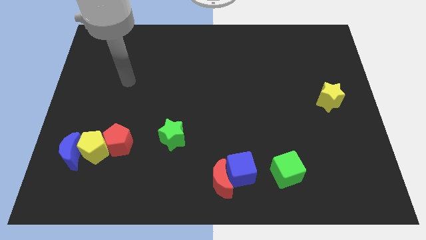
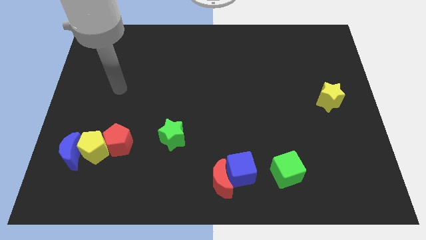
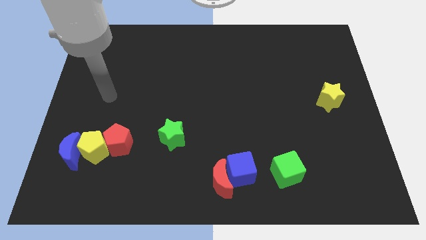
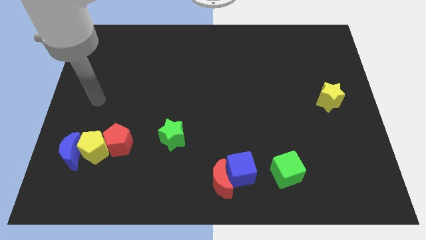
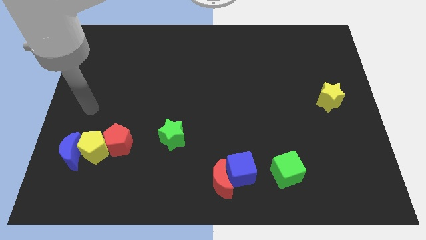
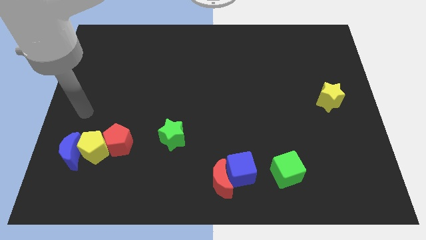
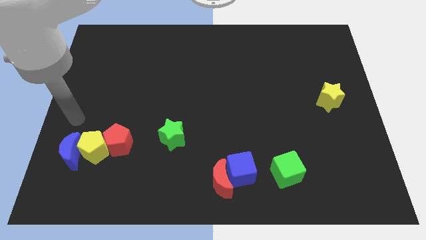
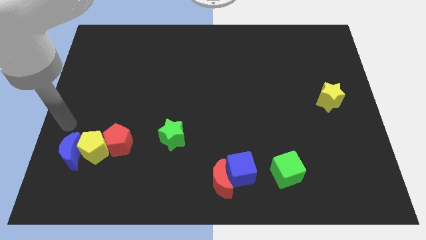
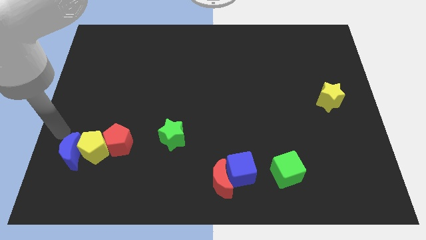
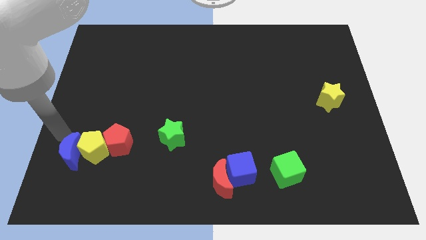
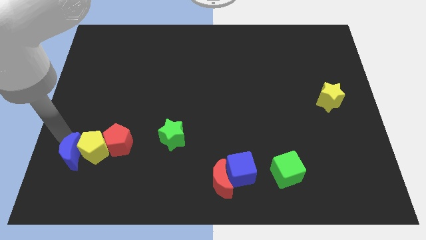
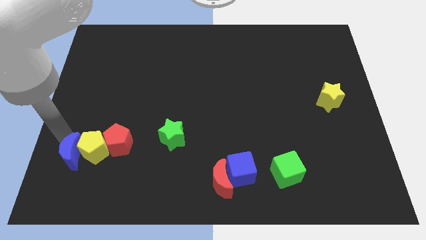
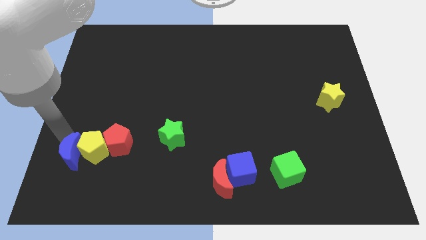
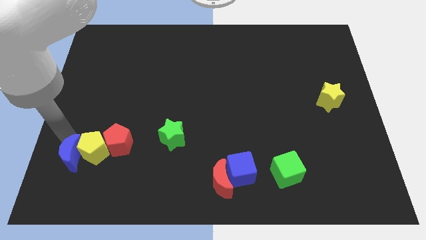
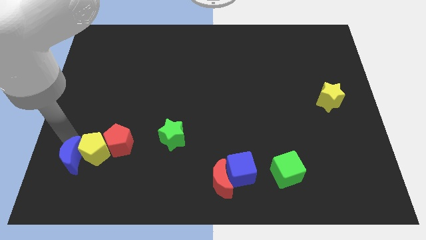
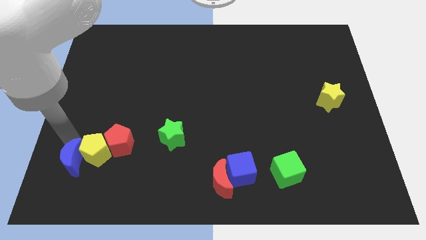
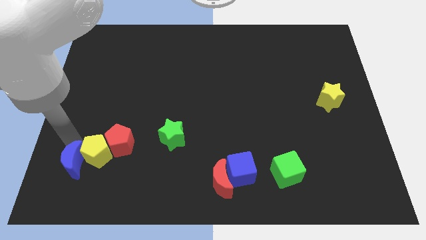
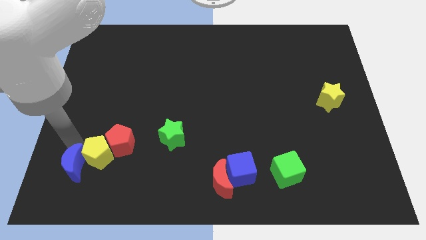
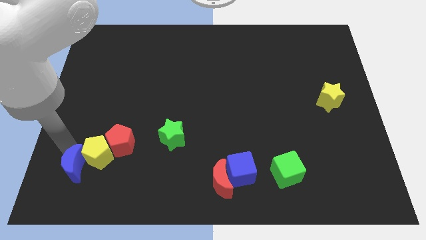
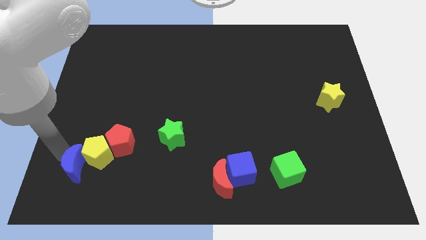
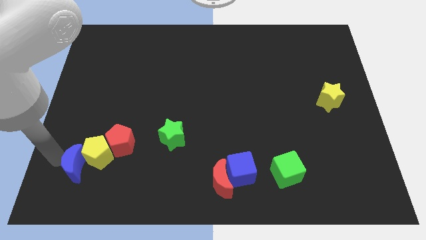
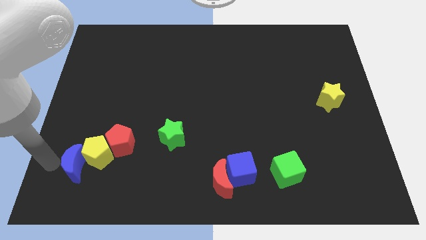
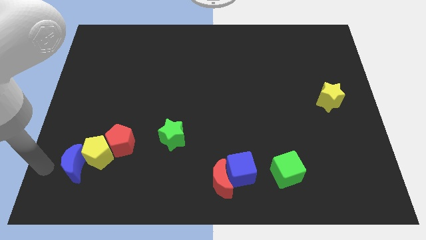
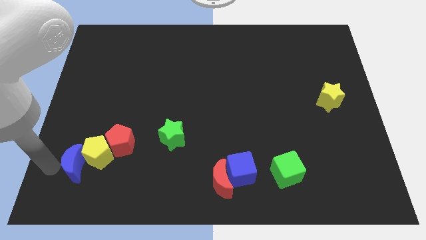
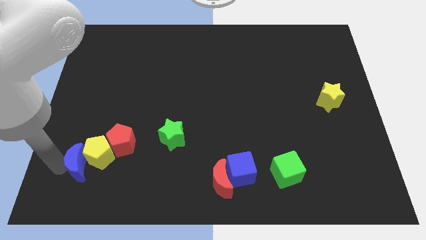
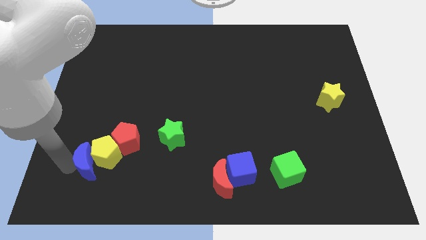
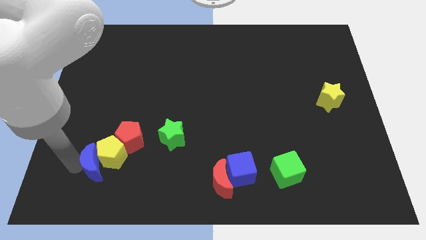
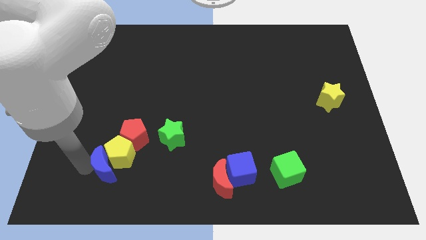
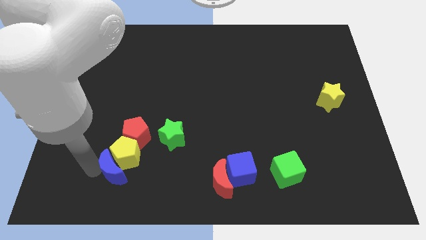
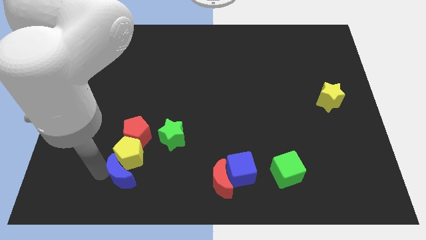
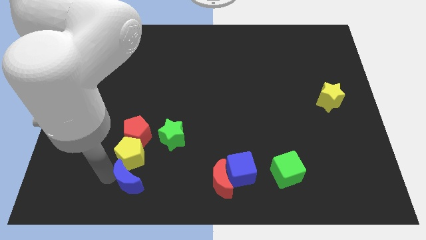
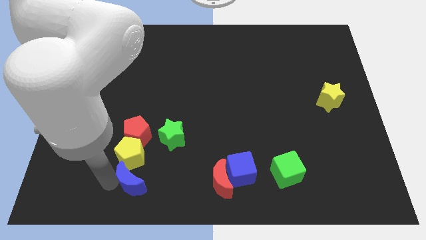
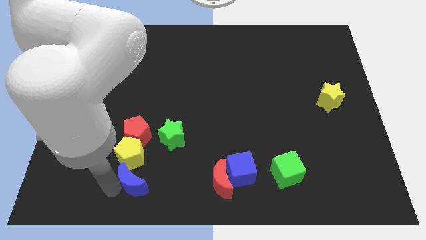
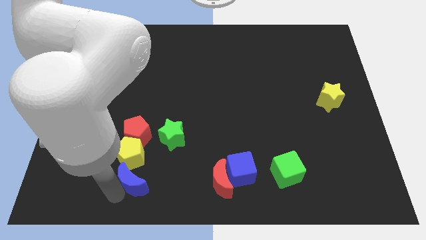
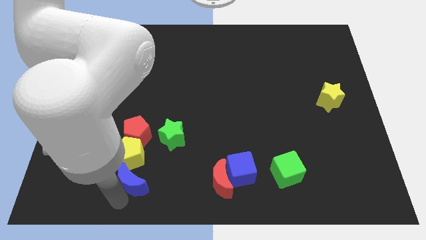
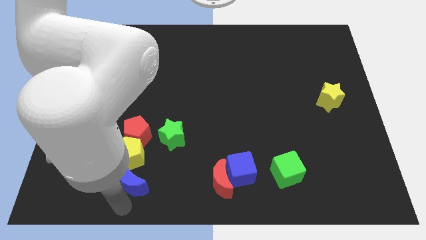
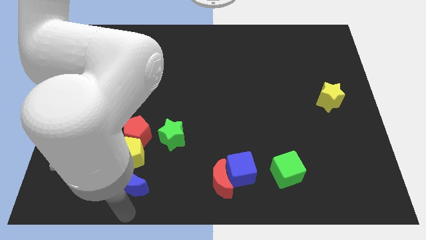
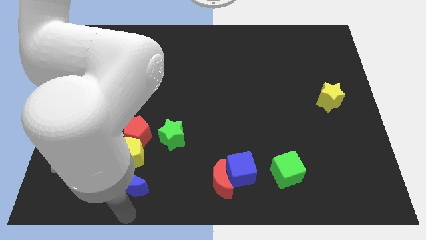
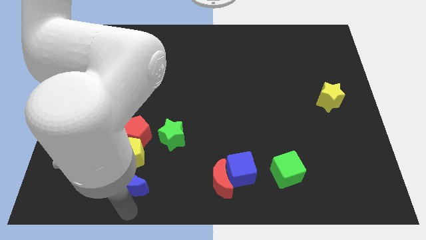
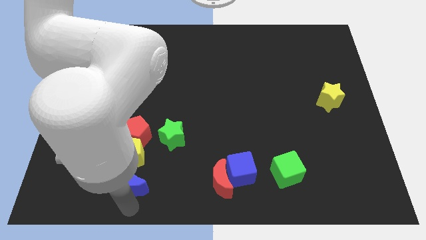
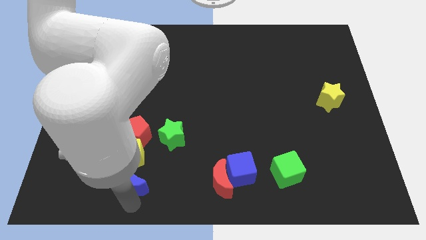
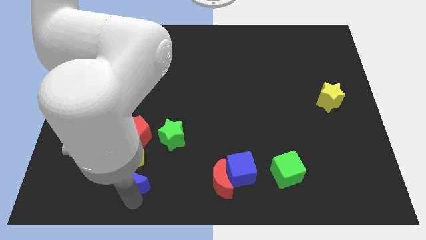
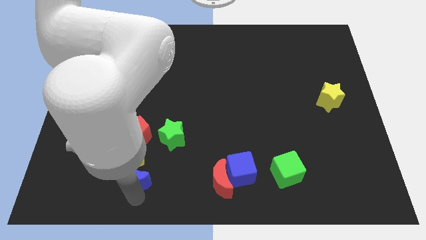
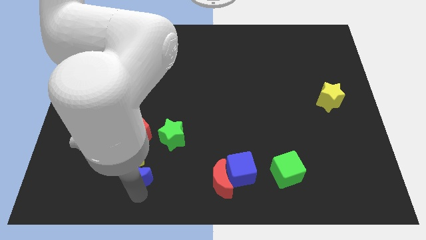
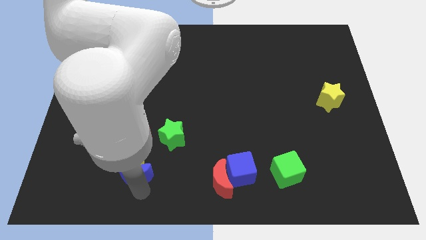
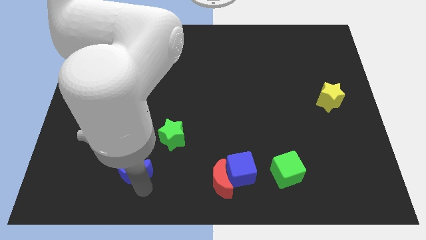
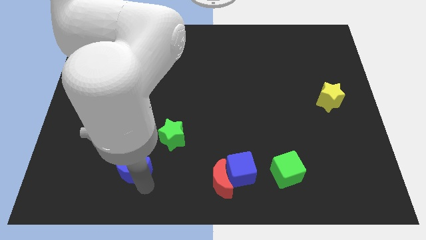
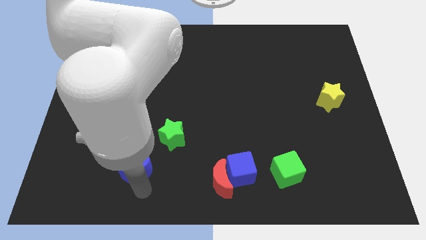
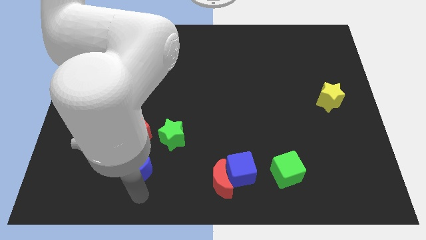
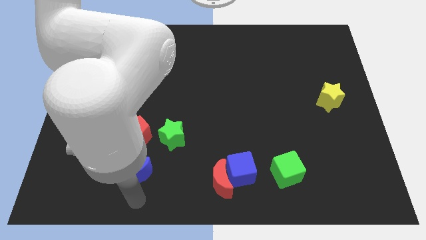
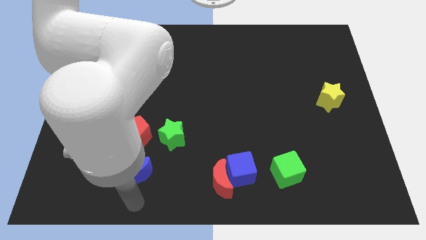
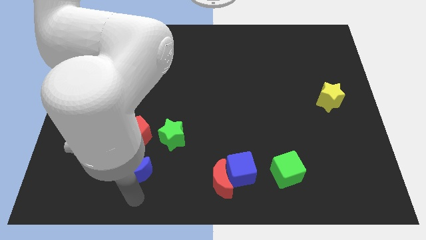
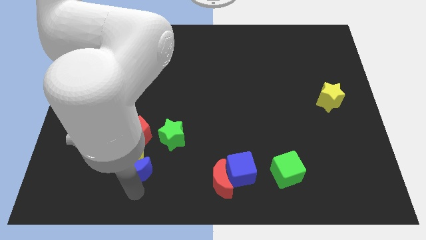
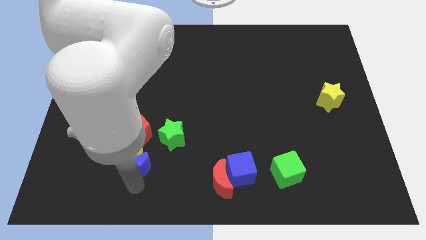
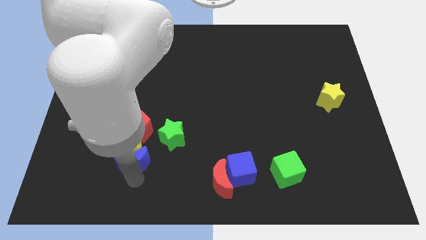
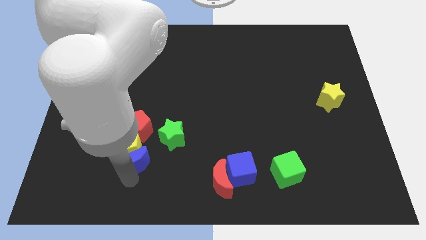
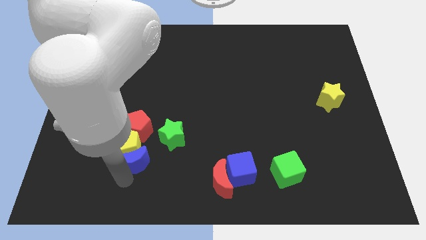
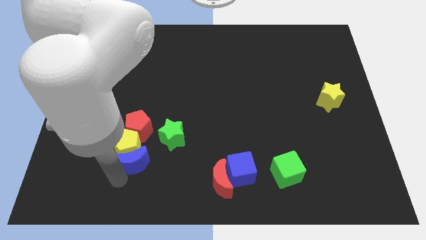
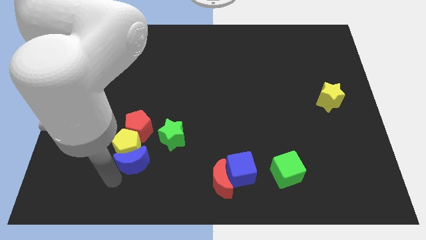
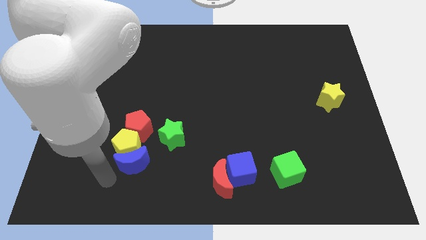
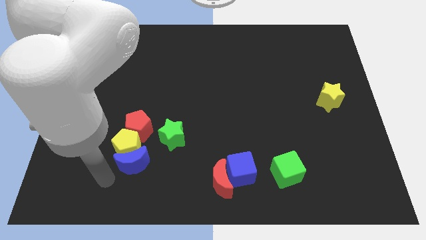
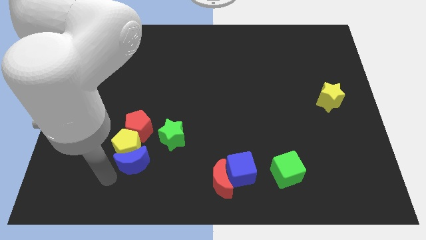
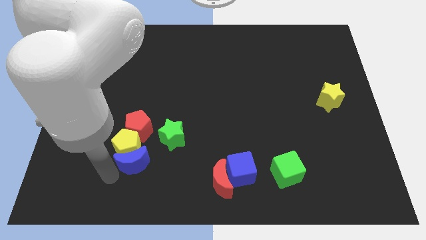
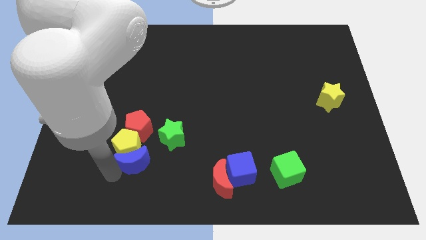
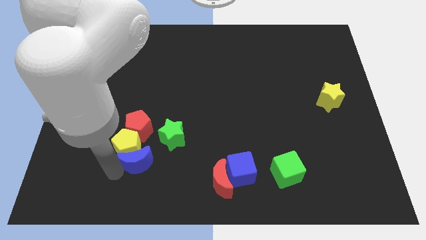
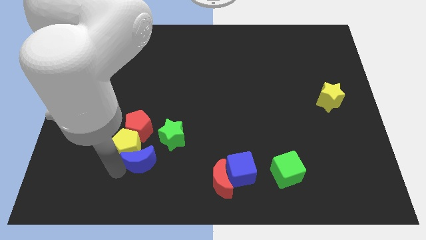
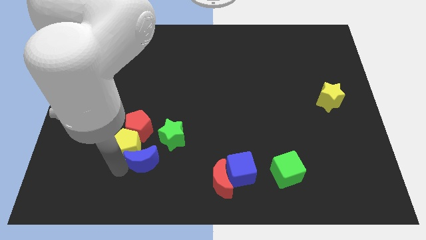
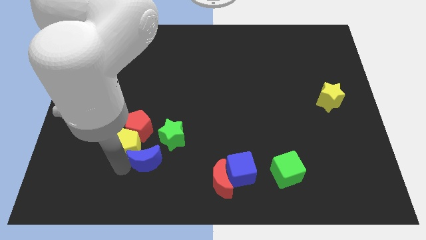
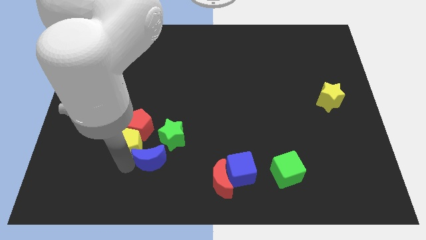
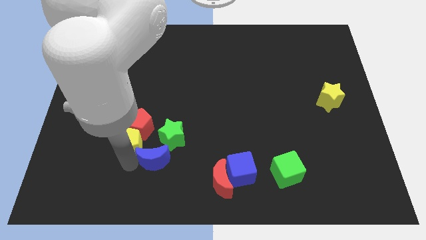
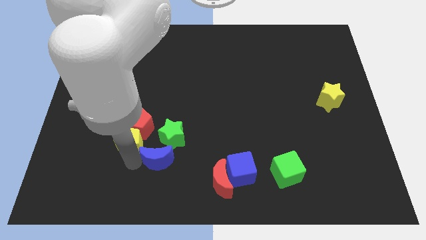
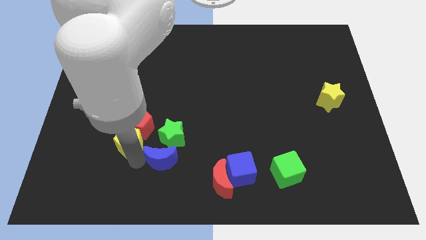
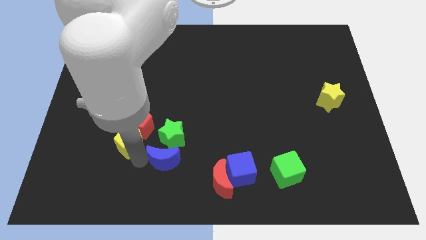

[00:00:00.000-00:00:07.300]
push the blue moon to the right

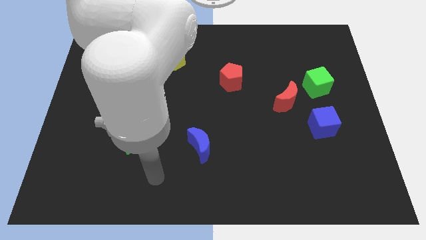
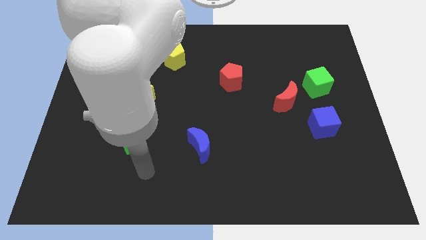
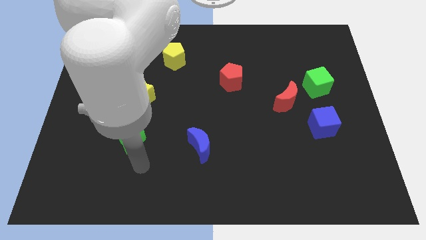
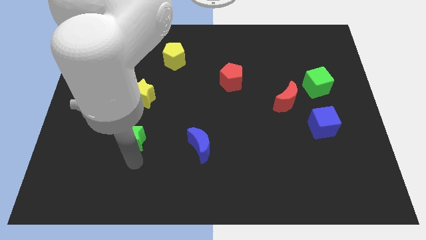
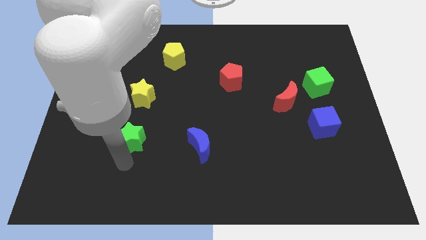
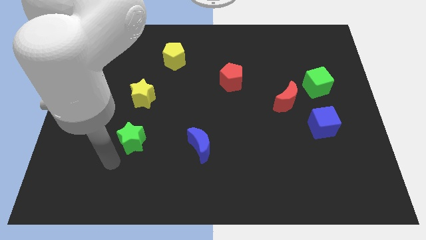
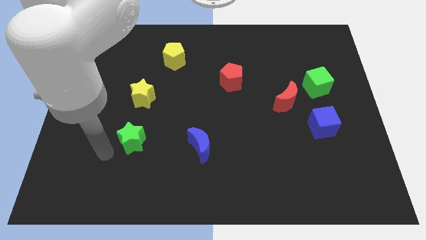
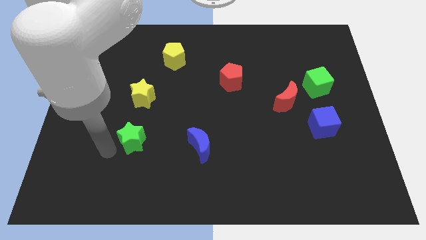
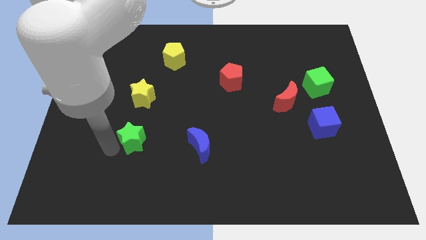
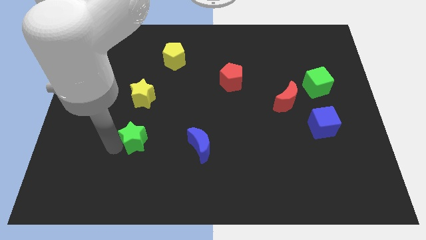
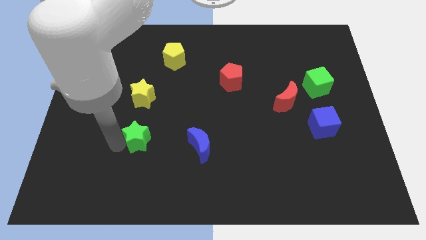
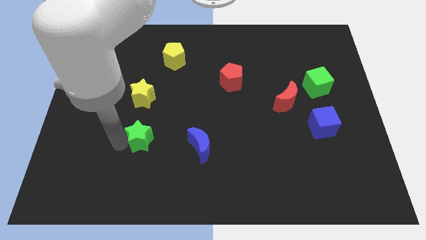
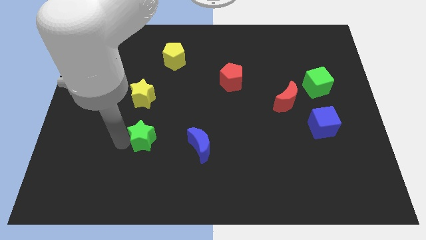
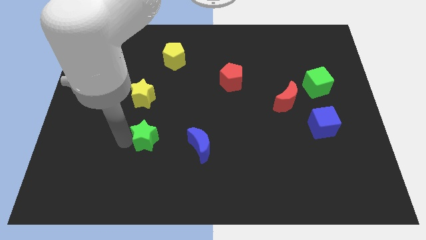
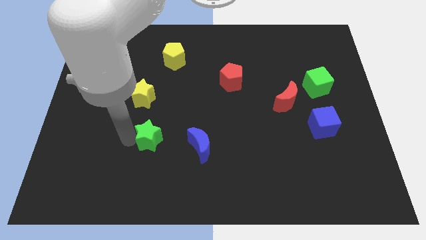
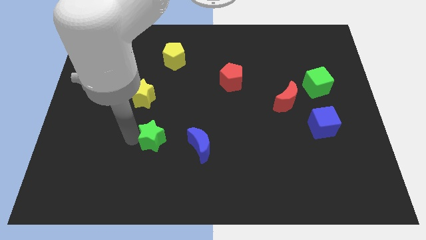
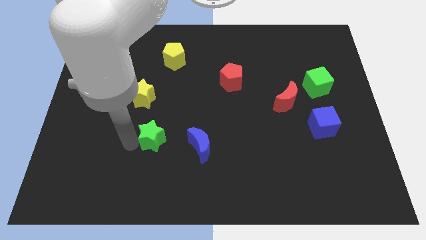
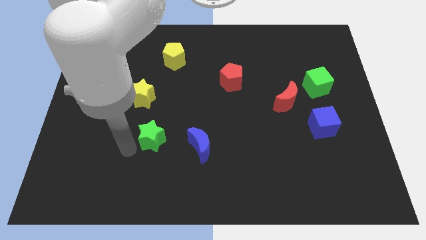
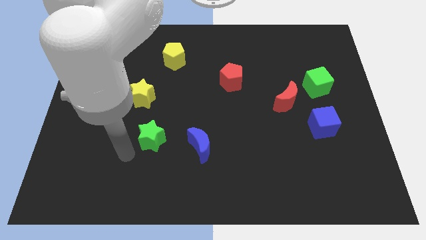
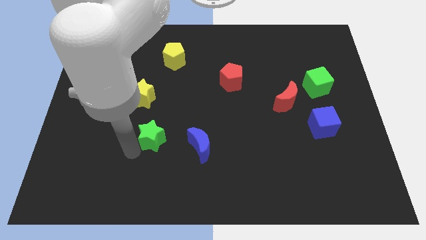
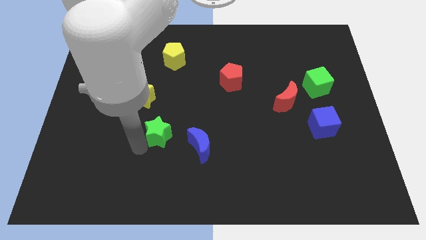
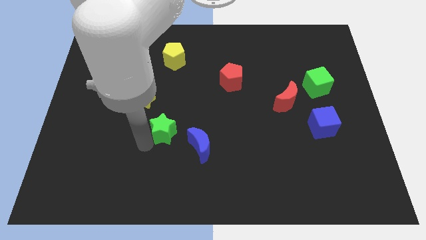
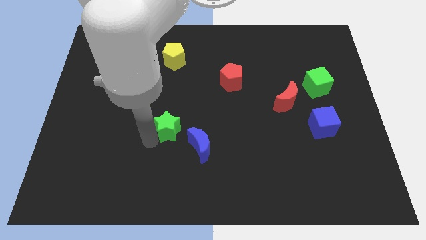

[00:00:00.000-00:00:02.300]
slide the green star to the right somewhat
